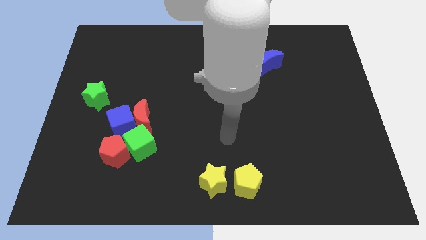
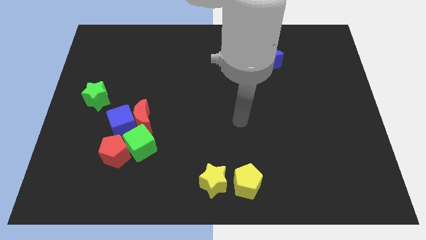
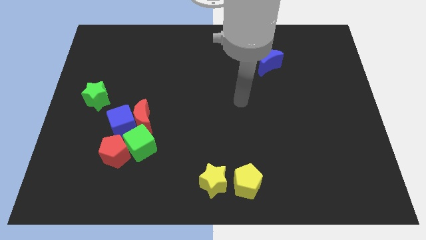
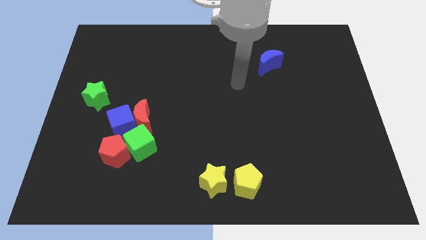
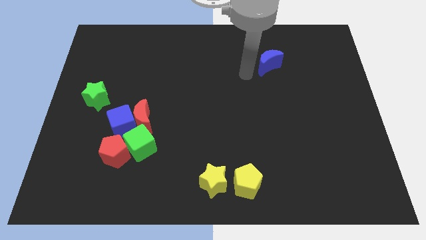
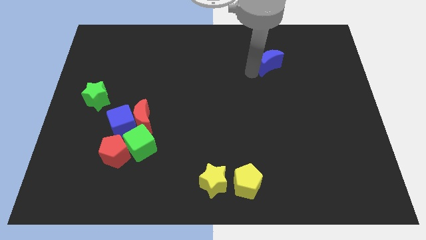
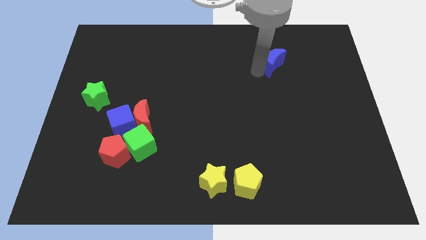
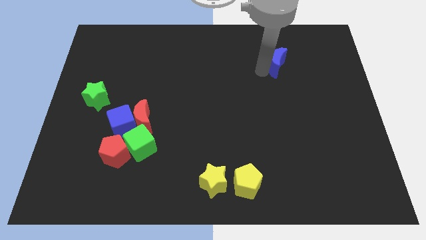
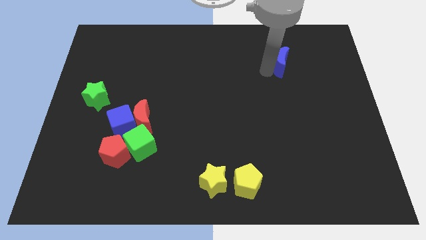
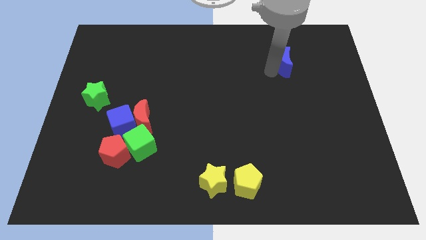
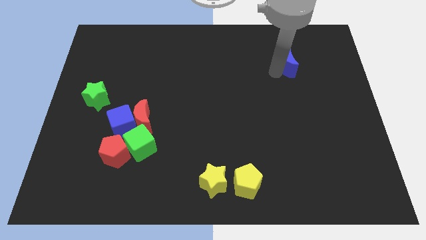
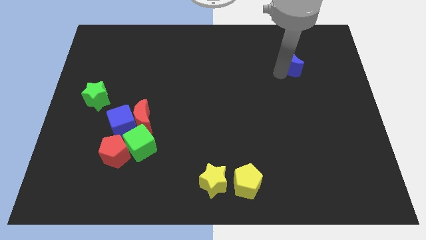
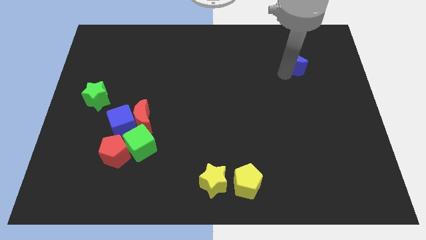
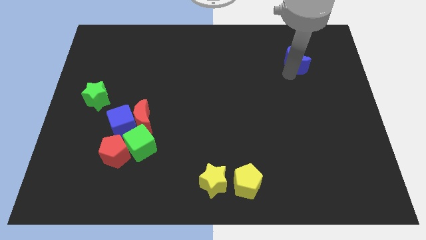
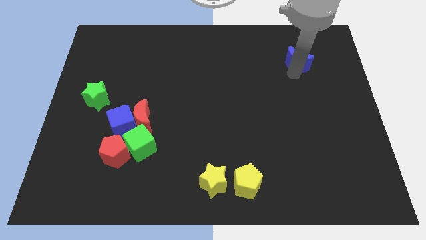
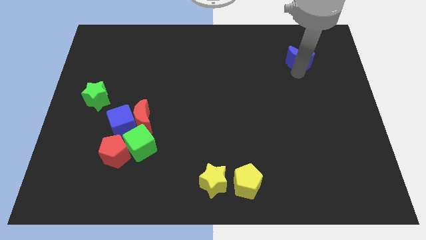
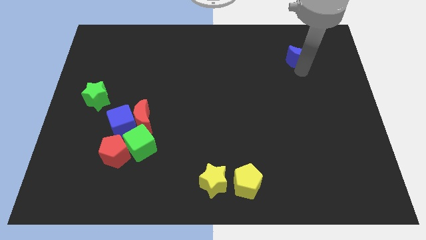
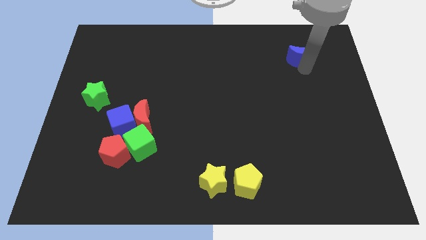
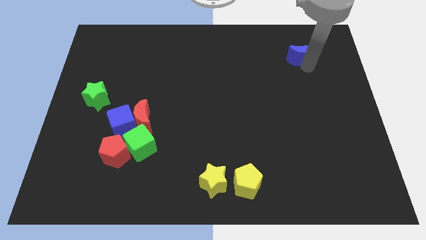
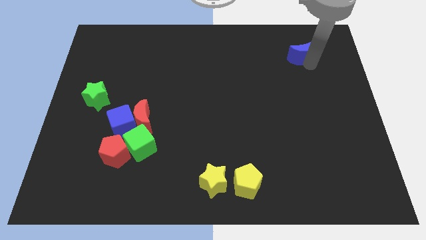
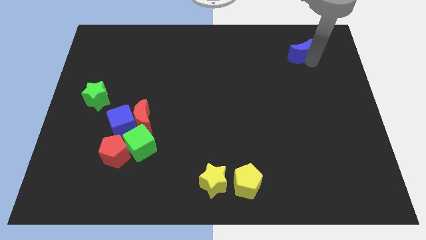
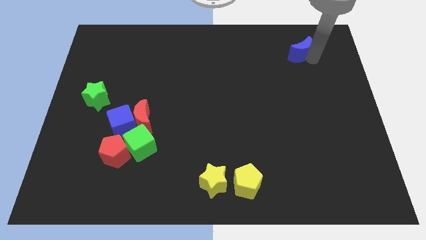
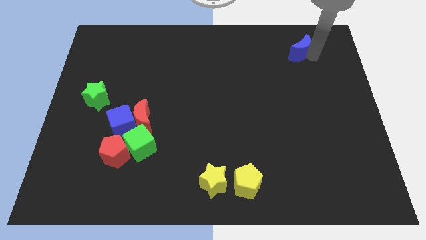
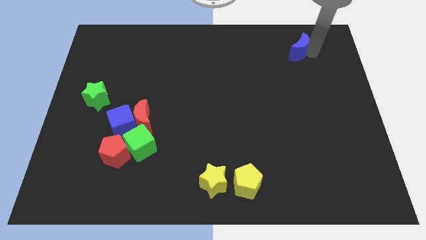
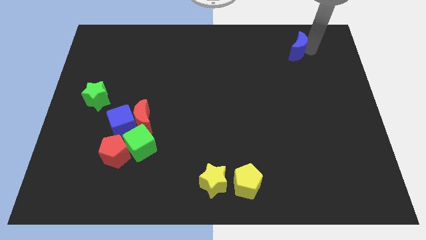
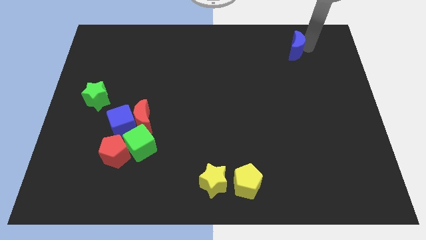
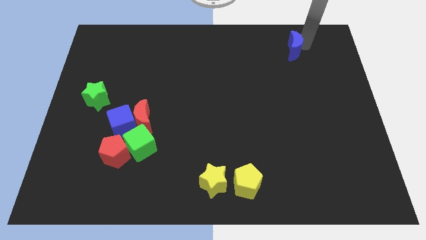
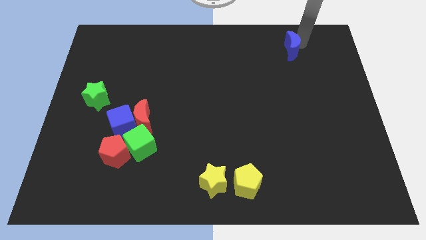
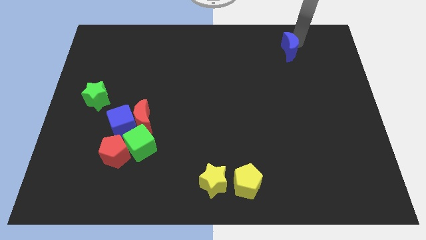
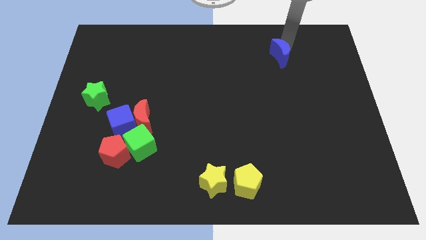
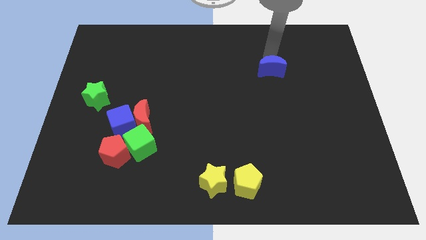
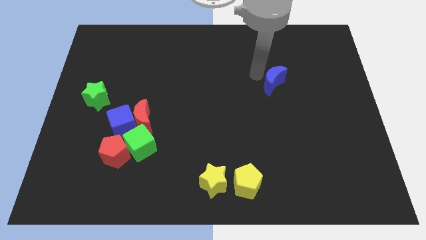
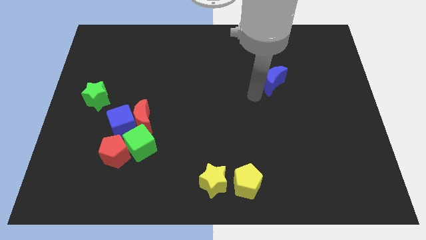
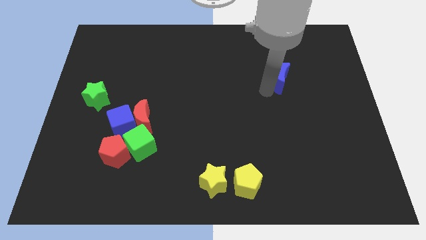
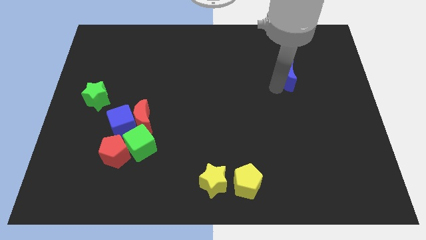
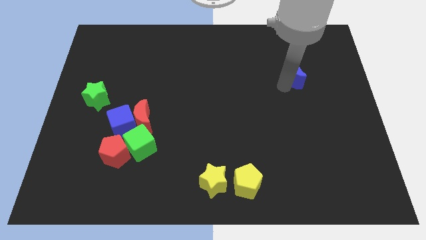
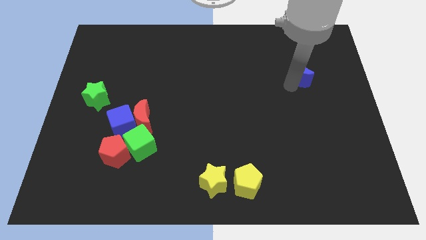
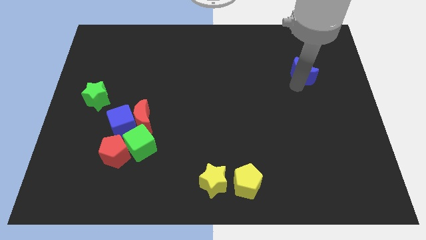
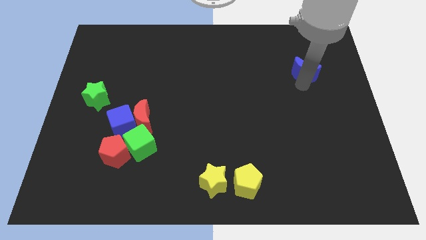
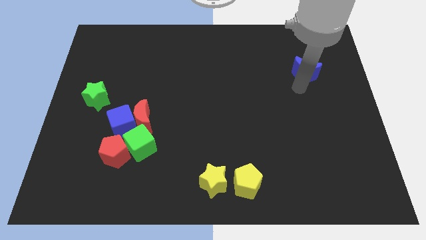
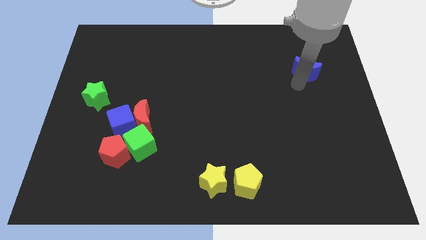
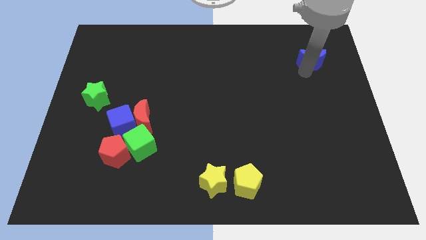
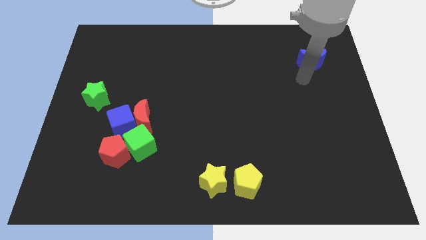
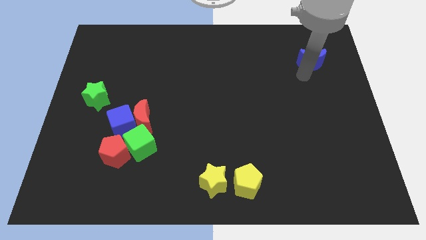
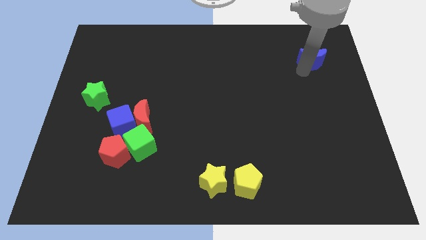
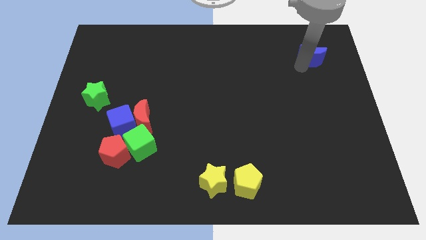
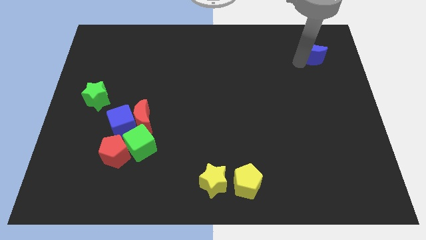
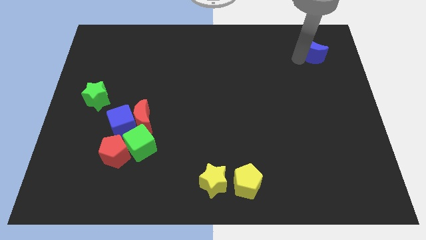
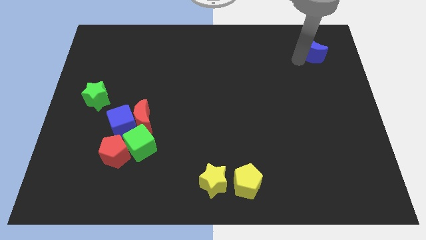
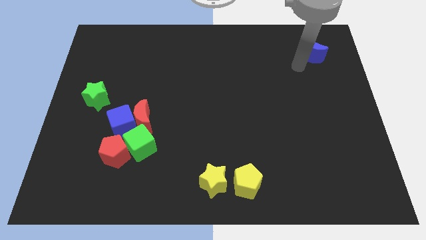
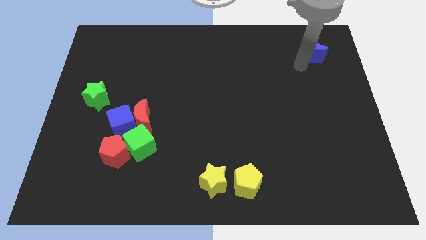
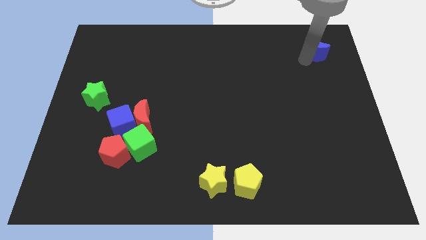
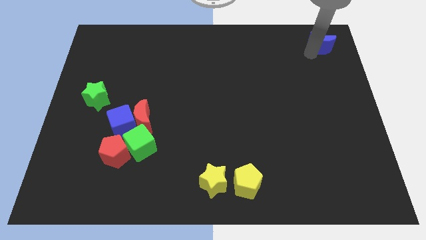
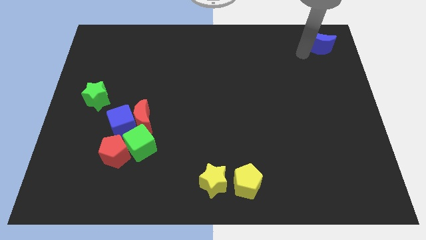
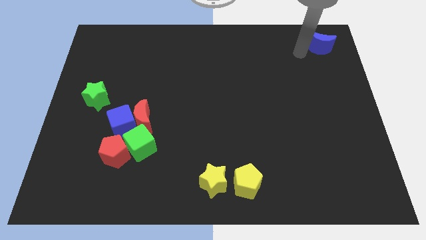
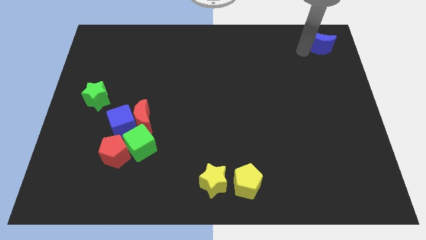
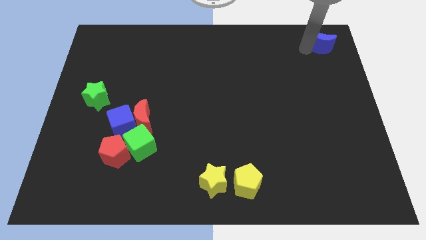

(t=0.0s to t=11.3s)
put the blue moon to the top right corner

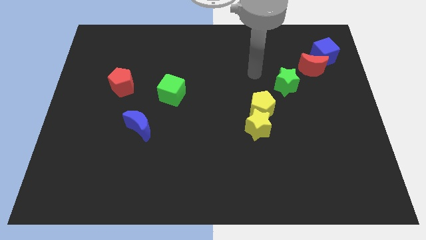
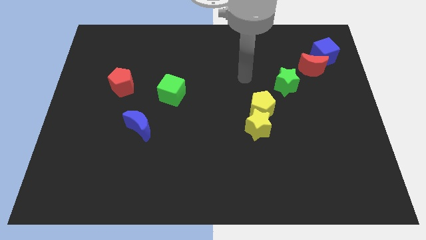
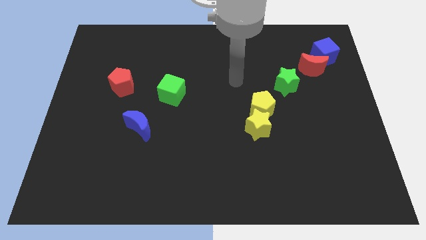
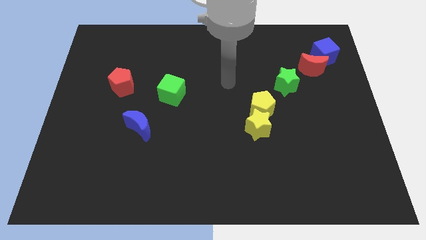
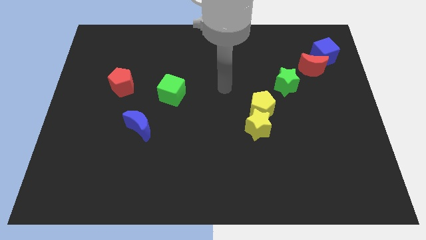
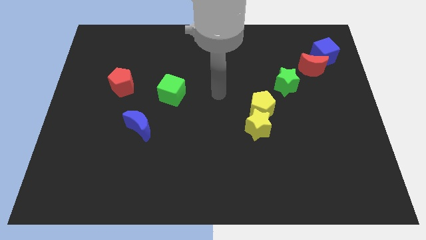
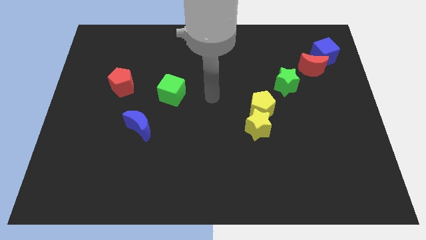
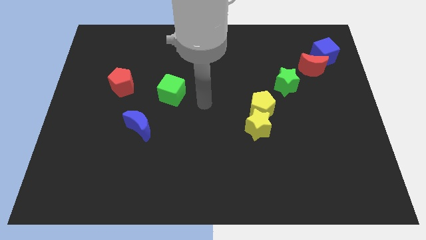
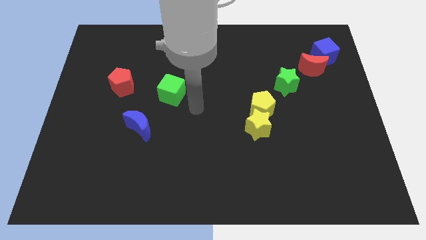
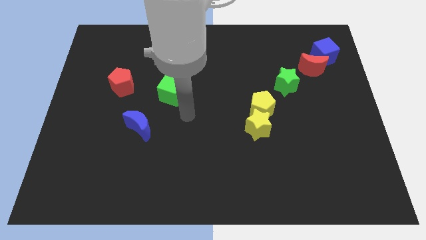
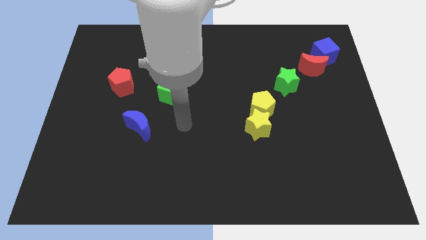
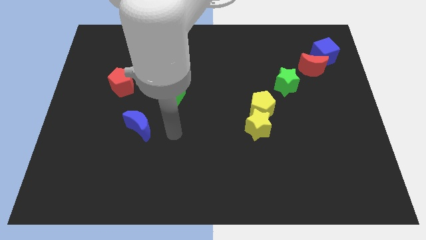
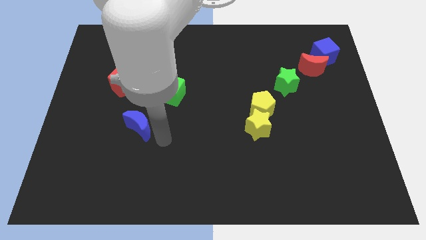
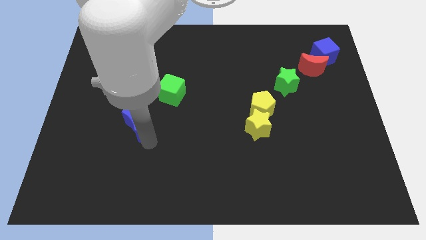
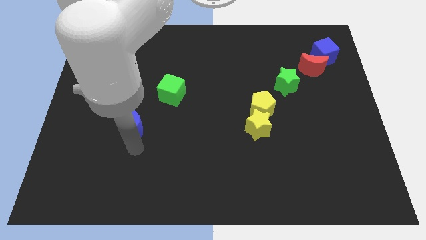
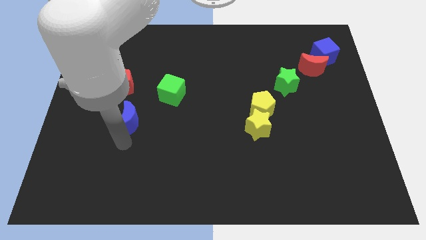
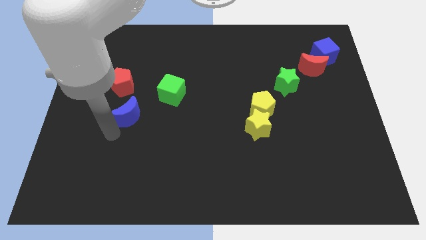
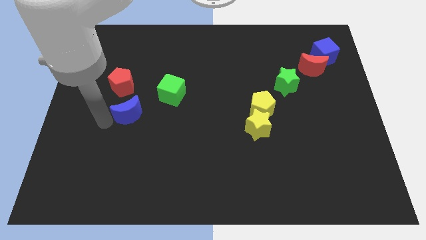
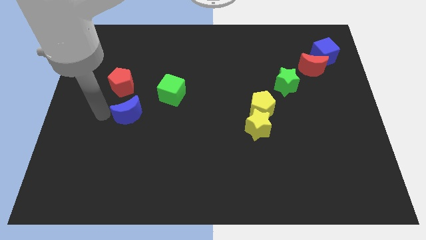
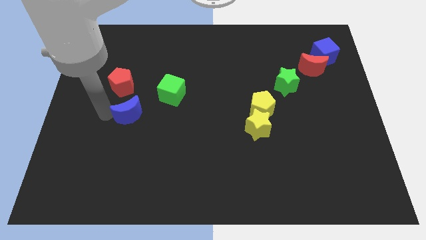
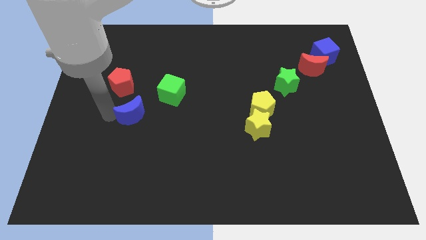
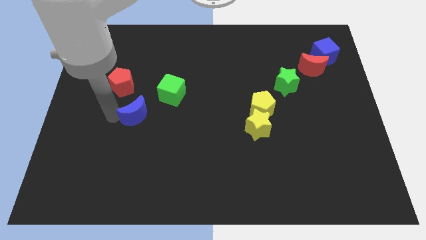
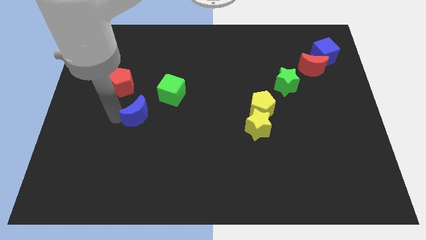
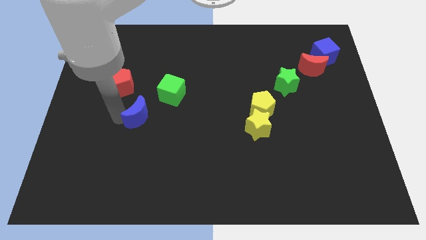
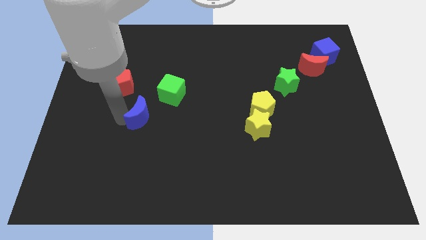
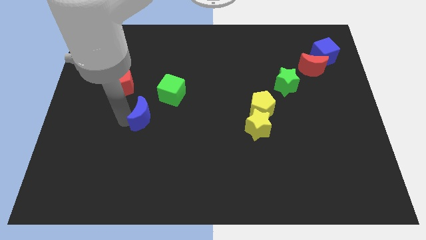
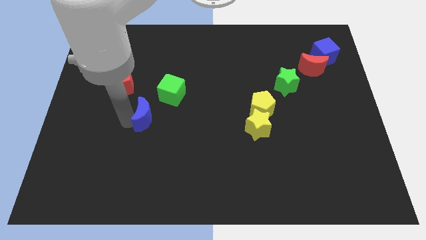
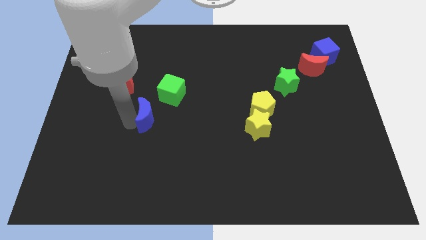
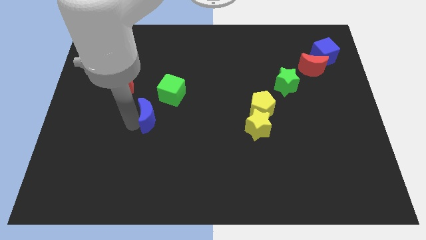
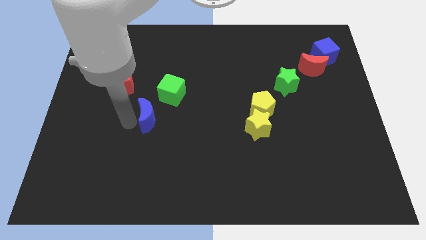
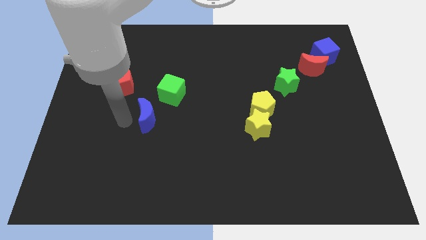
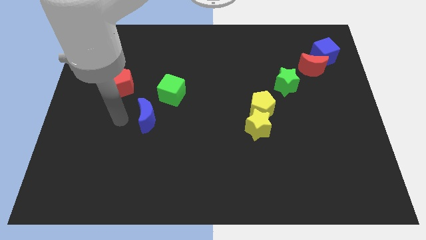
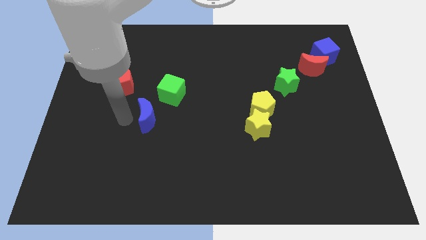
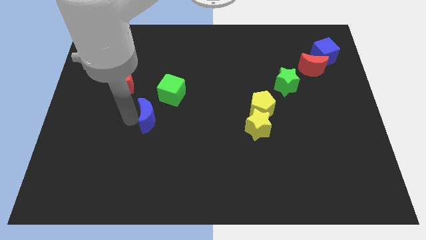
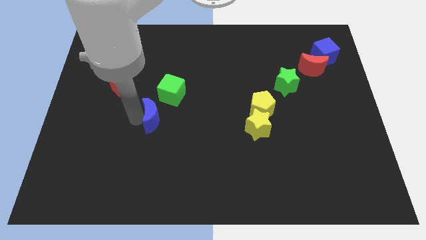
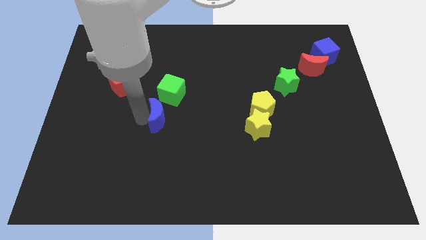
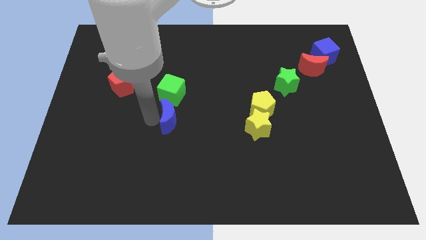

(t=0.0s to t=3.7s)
slide the blue moon to the middle of the board
